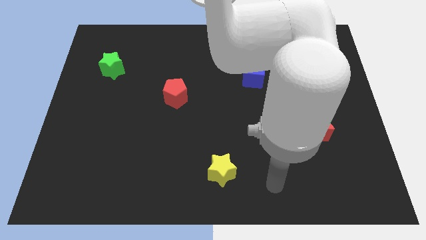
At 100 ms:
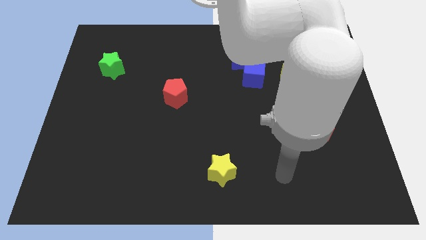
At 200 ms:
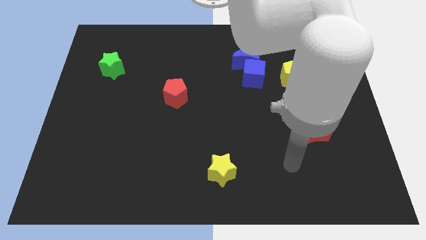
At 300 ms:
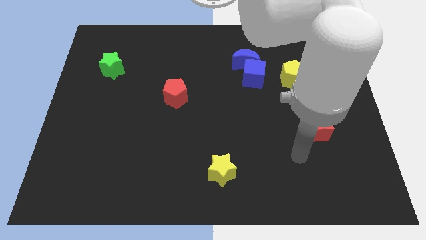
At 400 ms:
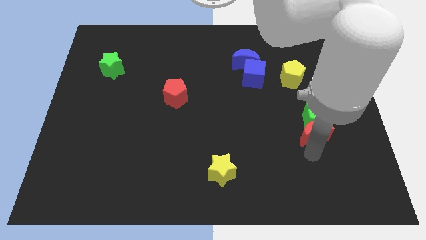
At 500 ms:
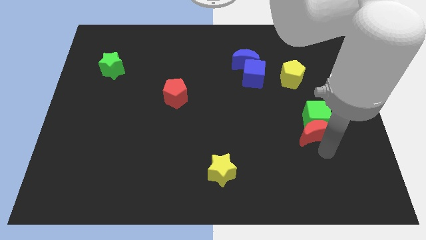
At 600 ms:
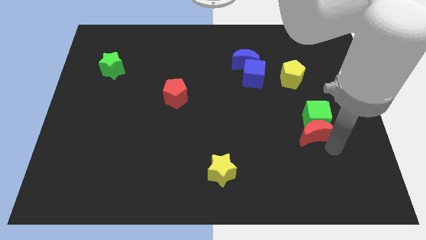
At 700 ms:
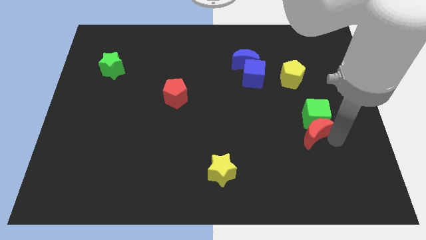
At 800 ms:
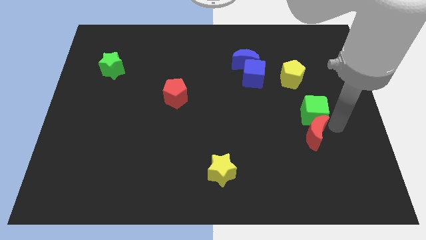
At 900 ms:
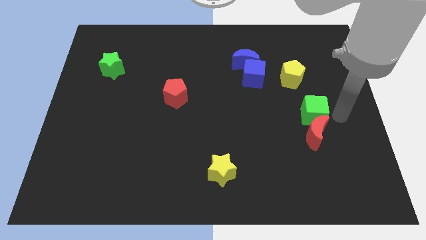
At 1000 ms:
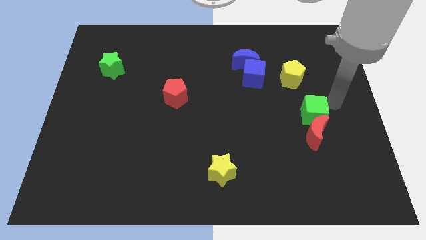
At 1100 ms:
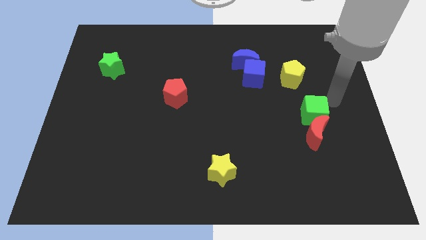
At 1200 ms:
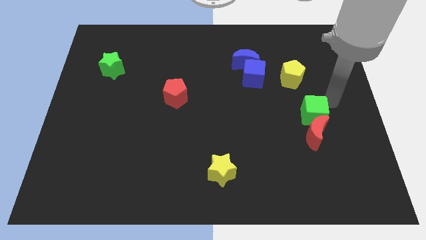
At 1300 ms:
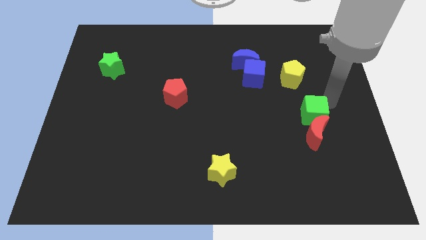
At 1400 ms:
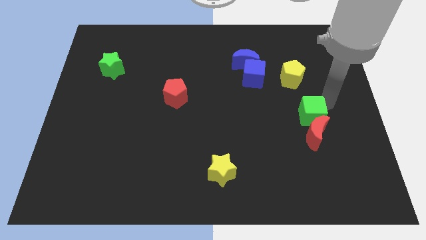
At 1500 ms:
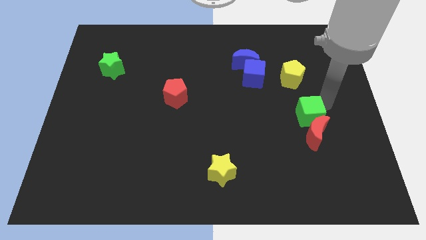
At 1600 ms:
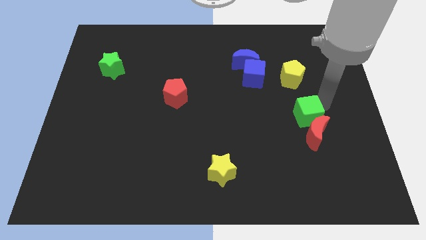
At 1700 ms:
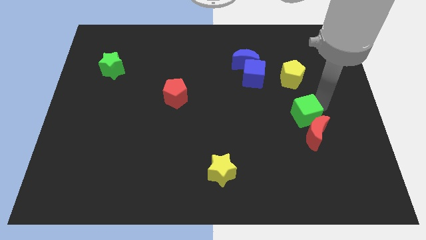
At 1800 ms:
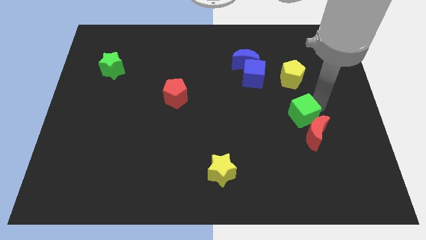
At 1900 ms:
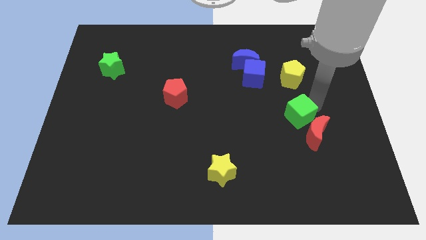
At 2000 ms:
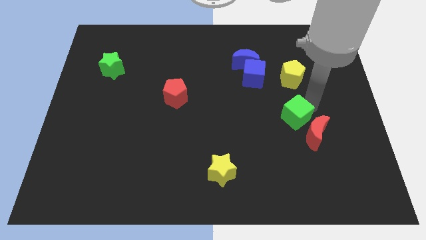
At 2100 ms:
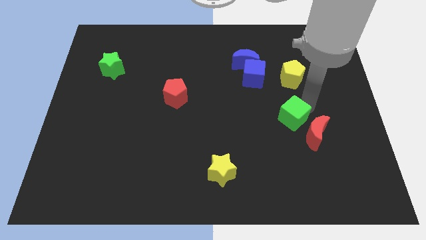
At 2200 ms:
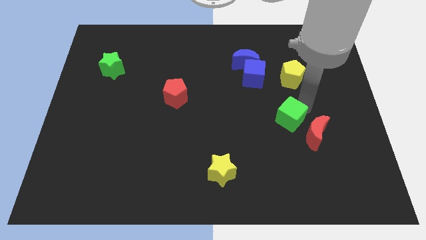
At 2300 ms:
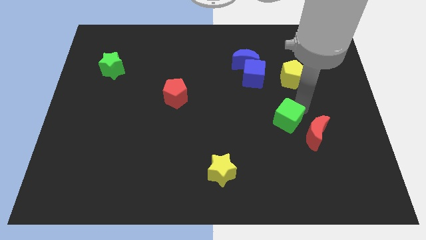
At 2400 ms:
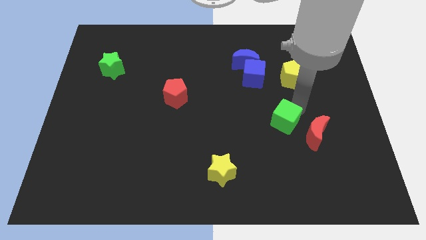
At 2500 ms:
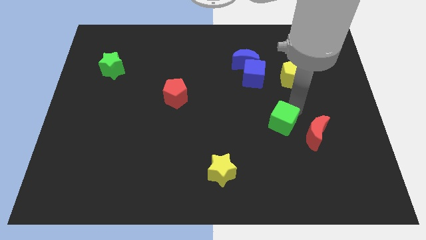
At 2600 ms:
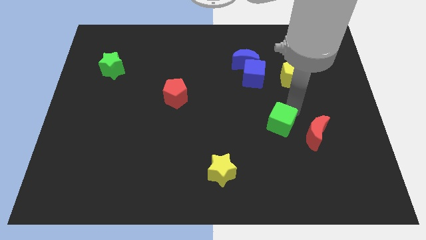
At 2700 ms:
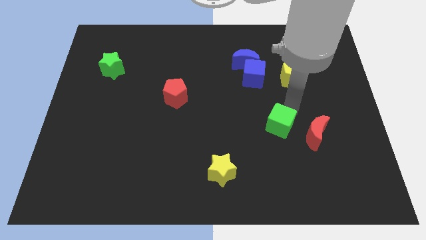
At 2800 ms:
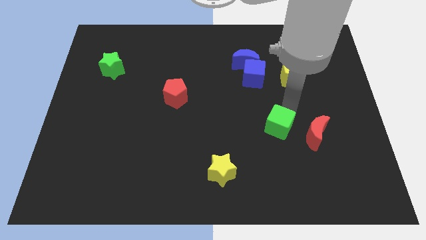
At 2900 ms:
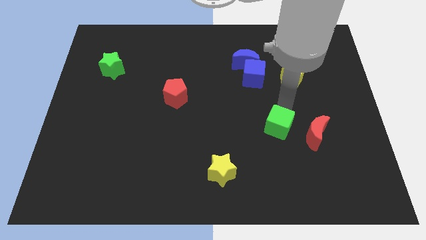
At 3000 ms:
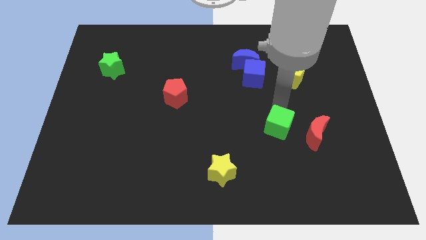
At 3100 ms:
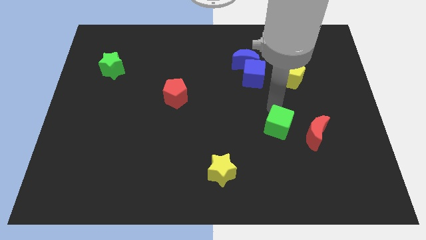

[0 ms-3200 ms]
push the green cube a little bit down and then to the left

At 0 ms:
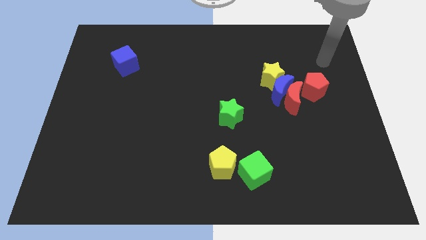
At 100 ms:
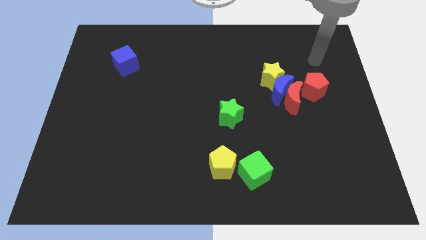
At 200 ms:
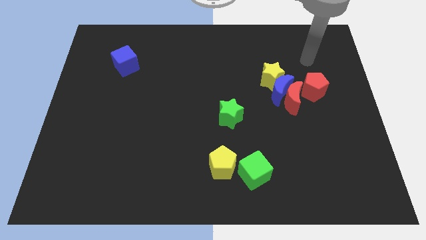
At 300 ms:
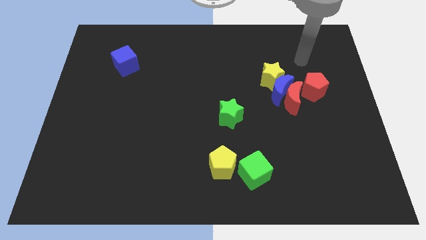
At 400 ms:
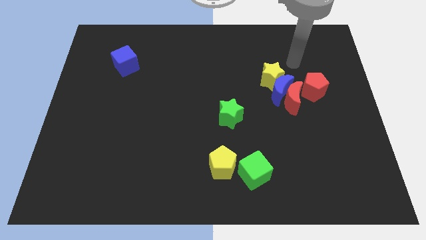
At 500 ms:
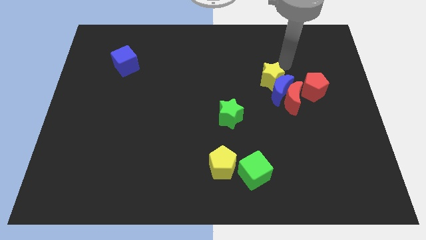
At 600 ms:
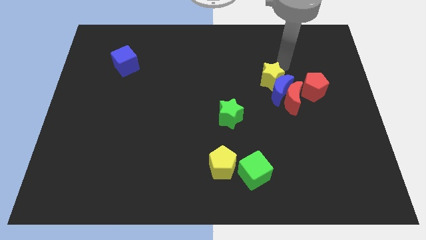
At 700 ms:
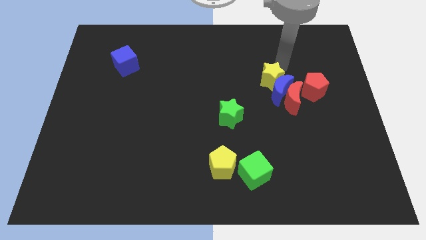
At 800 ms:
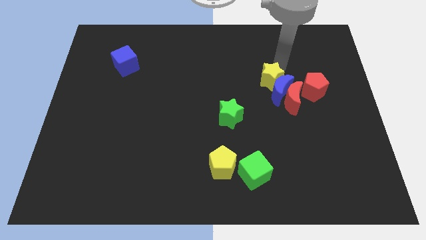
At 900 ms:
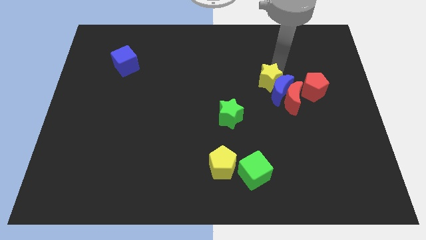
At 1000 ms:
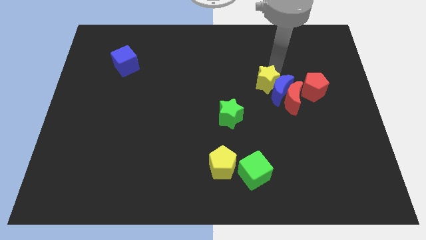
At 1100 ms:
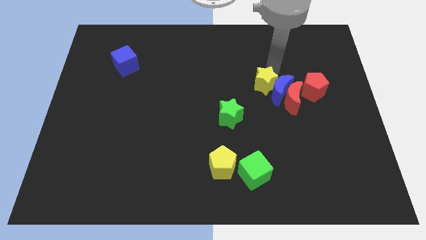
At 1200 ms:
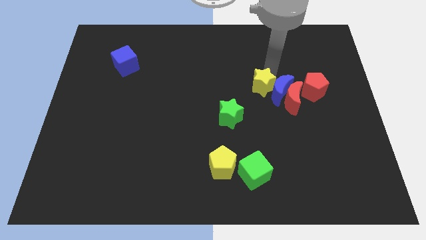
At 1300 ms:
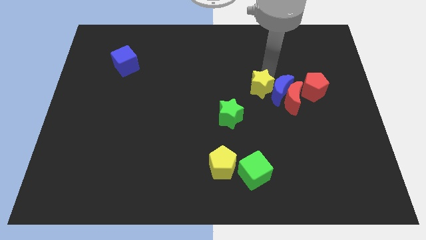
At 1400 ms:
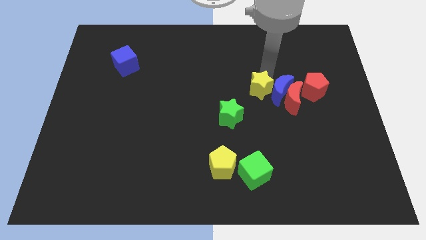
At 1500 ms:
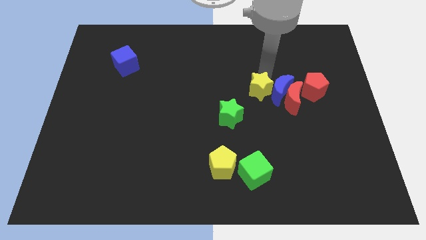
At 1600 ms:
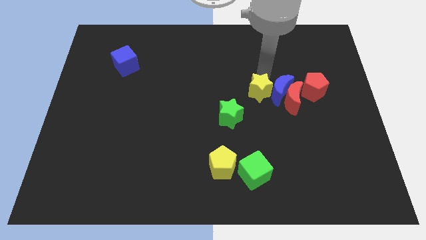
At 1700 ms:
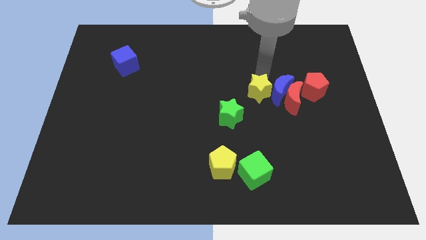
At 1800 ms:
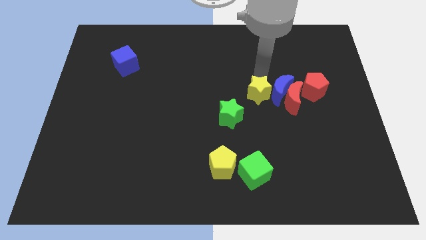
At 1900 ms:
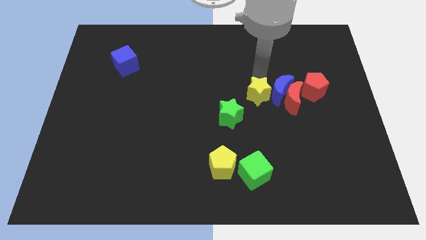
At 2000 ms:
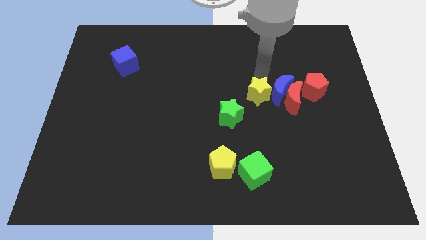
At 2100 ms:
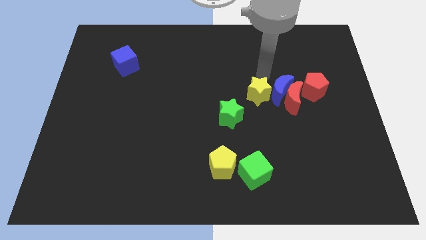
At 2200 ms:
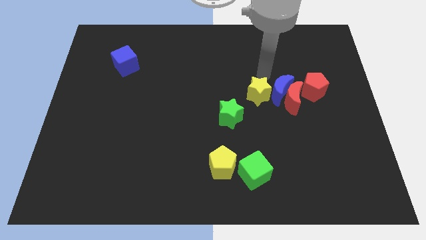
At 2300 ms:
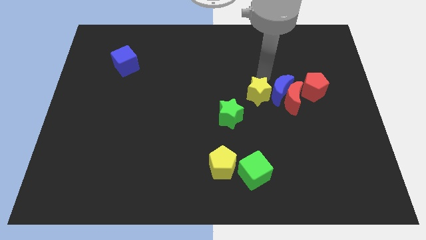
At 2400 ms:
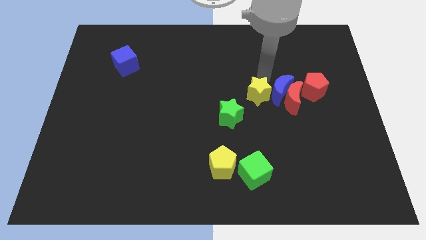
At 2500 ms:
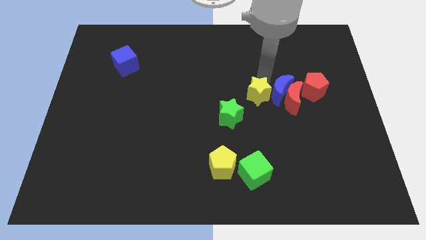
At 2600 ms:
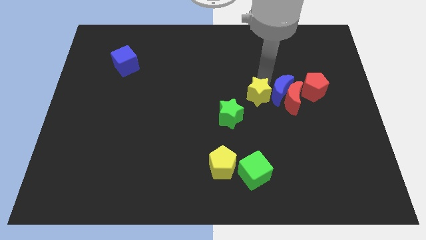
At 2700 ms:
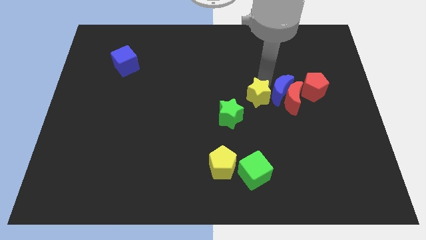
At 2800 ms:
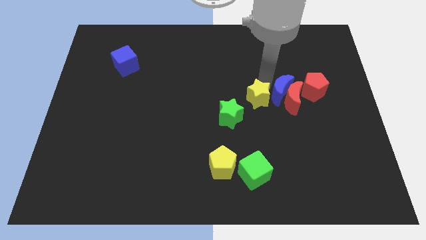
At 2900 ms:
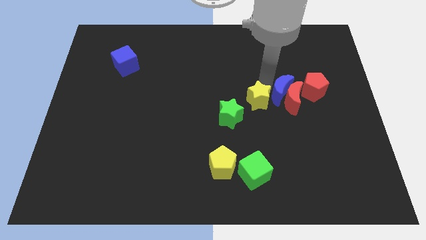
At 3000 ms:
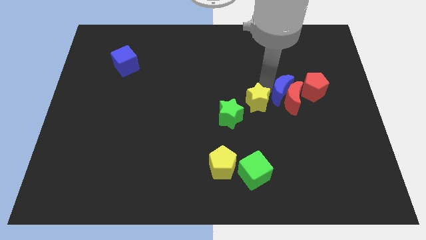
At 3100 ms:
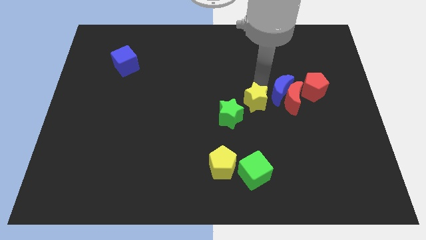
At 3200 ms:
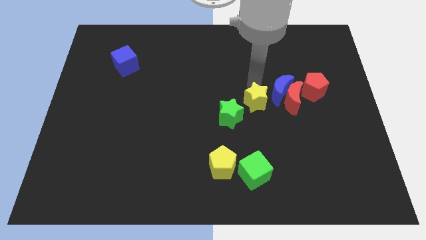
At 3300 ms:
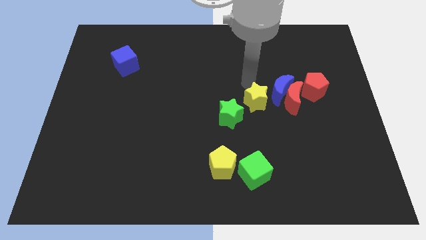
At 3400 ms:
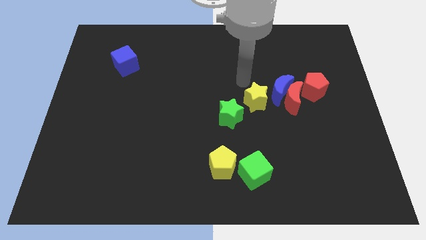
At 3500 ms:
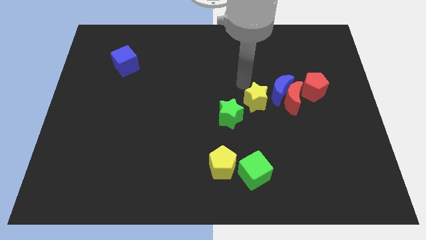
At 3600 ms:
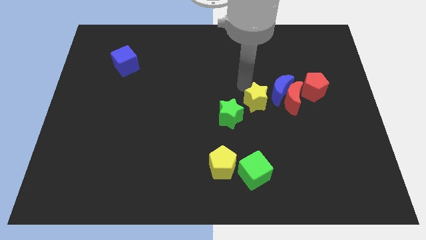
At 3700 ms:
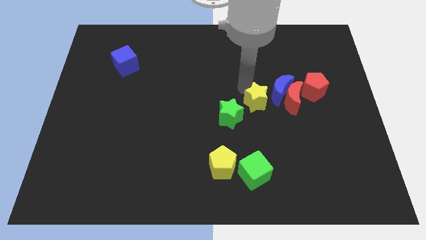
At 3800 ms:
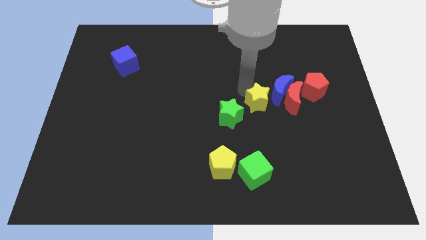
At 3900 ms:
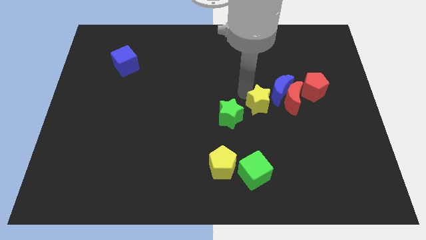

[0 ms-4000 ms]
move the yellow star downwards a little bit

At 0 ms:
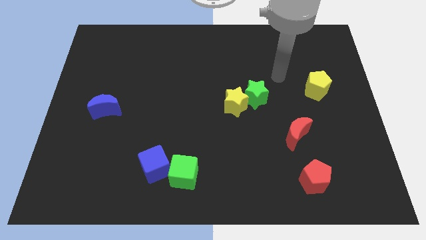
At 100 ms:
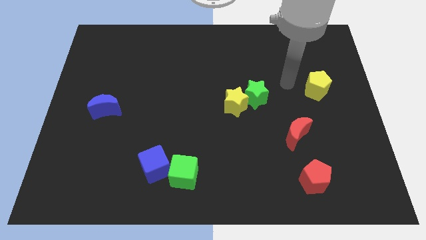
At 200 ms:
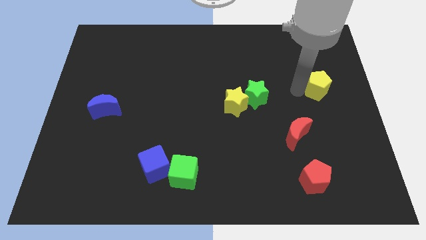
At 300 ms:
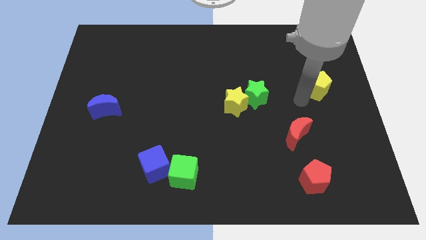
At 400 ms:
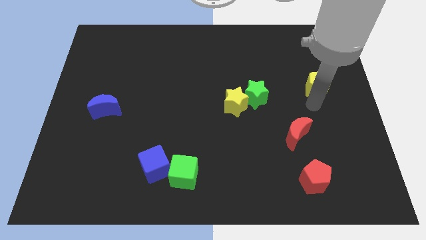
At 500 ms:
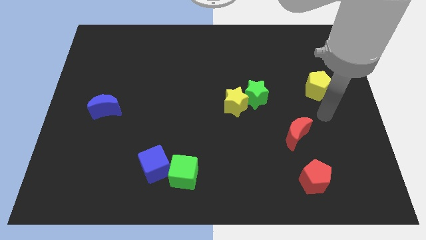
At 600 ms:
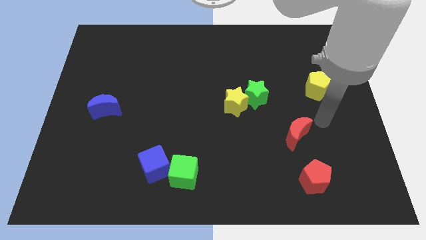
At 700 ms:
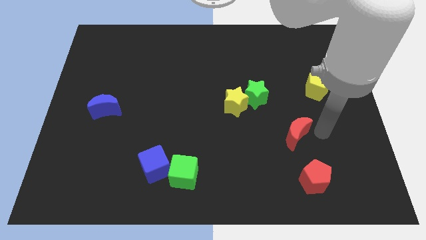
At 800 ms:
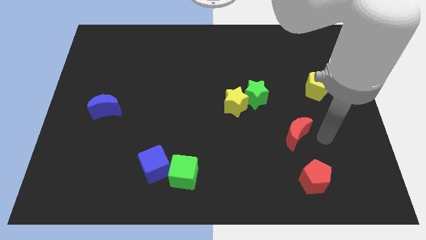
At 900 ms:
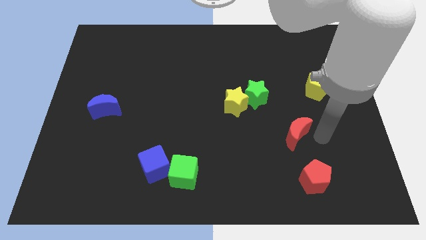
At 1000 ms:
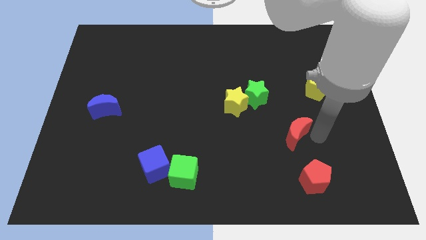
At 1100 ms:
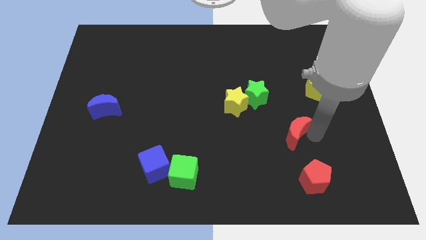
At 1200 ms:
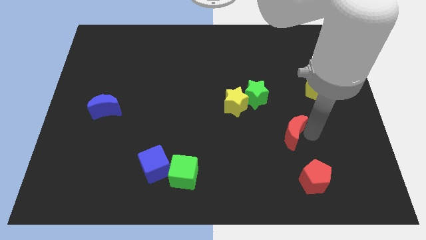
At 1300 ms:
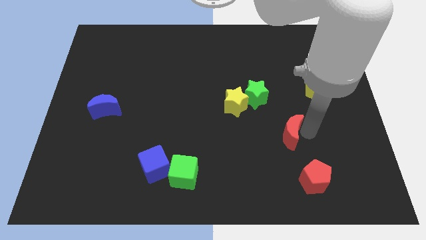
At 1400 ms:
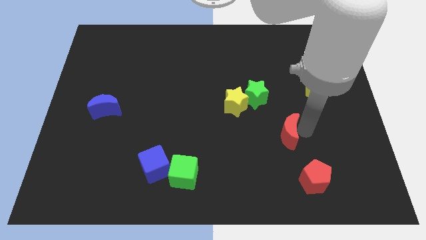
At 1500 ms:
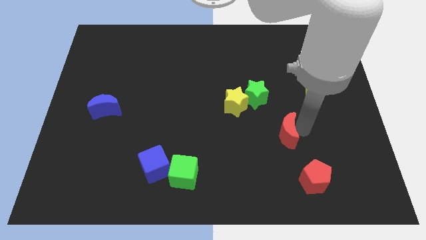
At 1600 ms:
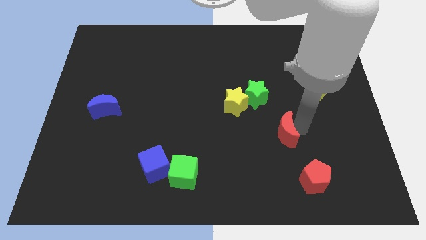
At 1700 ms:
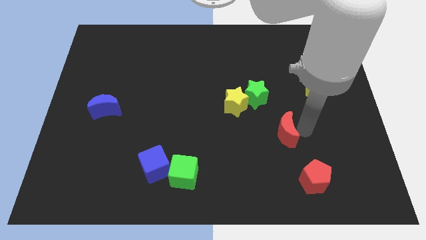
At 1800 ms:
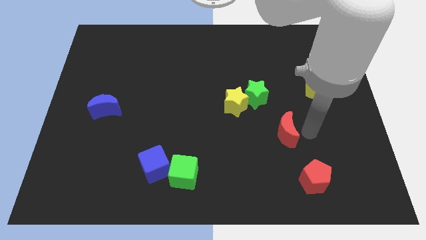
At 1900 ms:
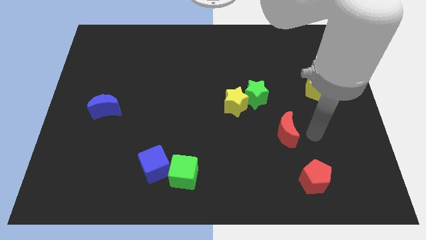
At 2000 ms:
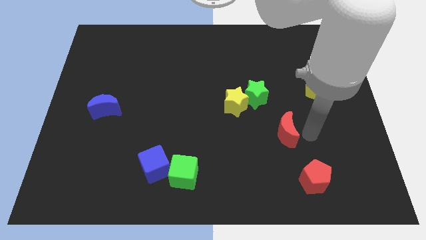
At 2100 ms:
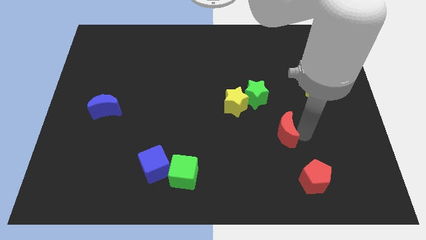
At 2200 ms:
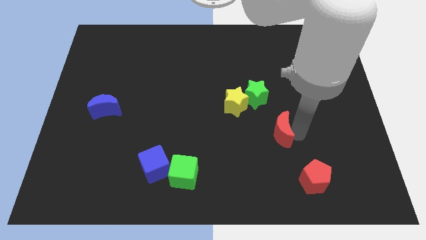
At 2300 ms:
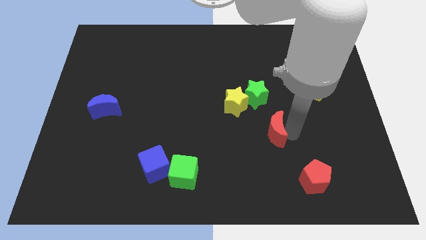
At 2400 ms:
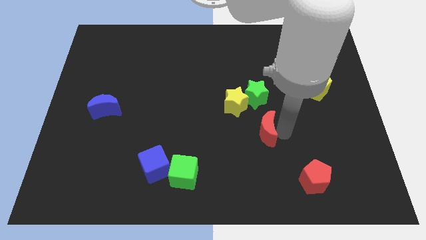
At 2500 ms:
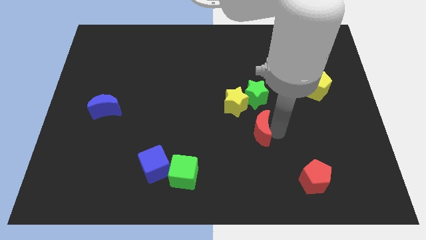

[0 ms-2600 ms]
move the red moon left a little bit
